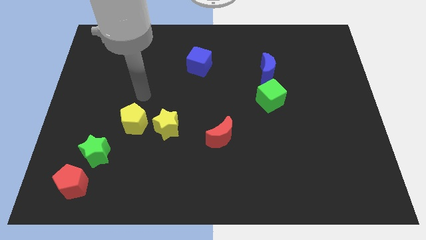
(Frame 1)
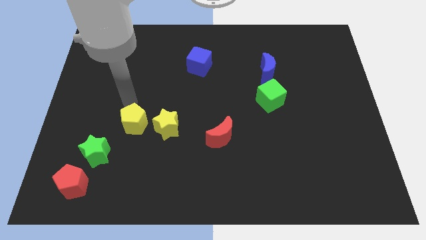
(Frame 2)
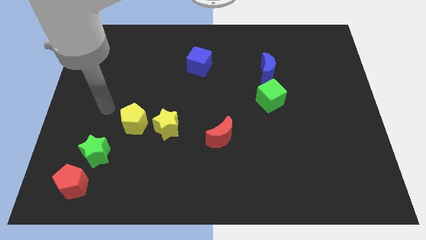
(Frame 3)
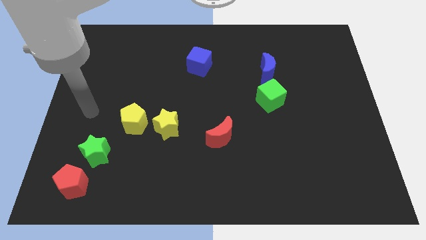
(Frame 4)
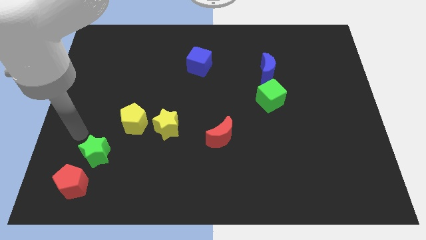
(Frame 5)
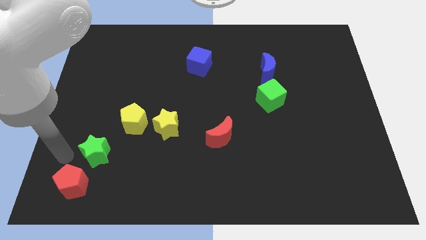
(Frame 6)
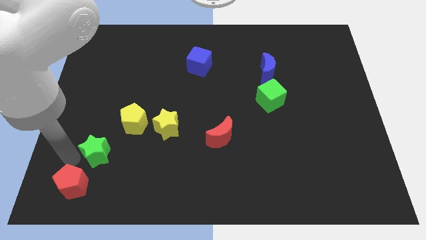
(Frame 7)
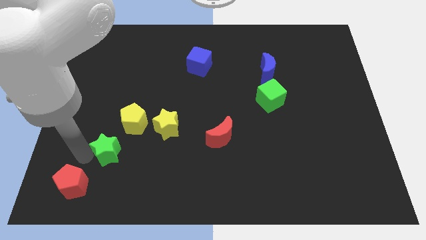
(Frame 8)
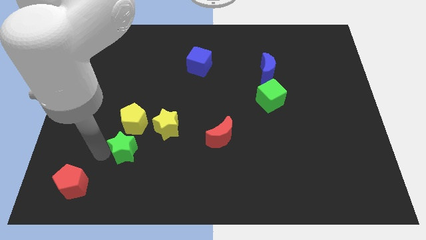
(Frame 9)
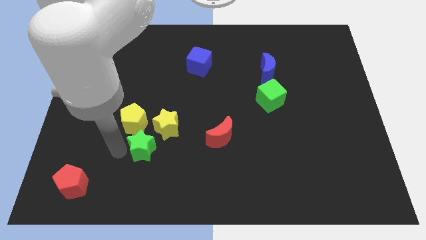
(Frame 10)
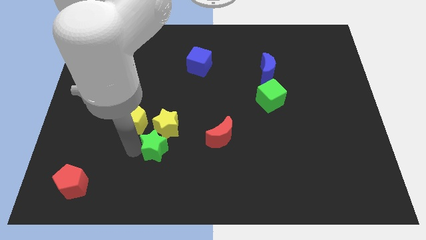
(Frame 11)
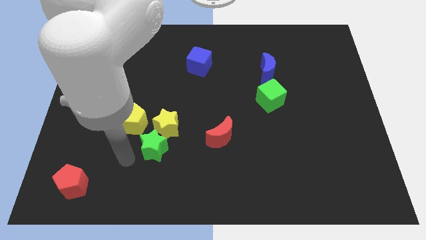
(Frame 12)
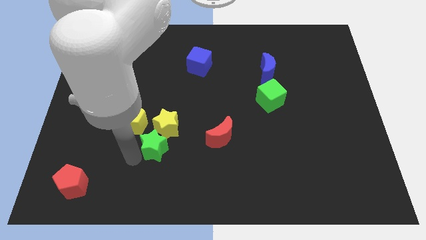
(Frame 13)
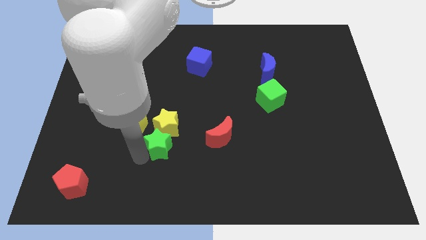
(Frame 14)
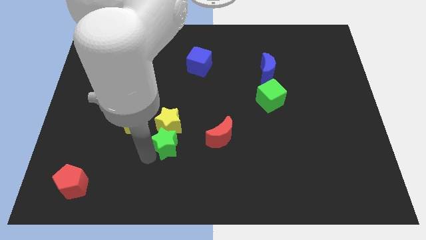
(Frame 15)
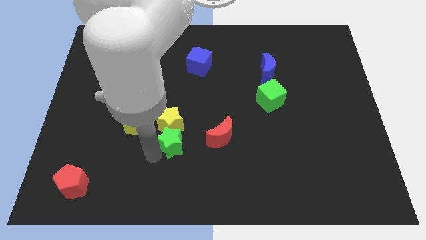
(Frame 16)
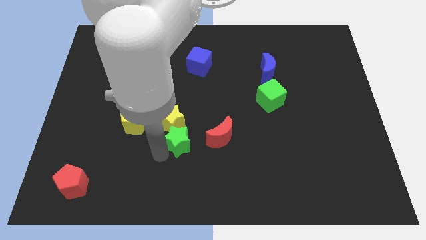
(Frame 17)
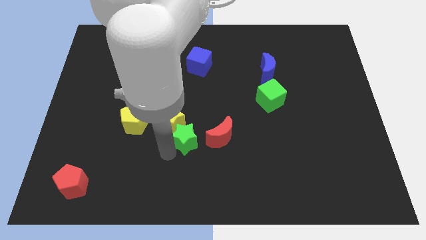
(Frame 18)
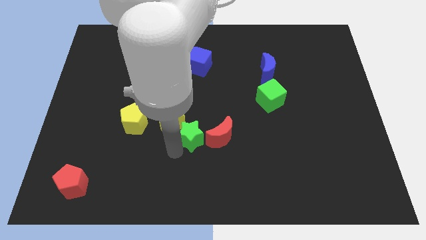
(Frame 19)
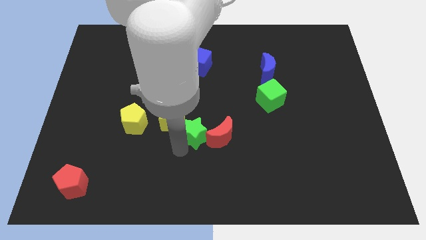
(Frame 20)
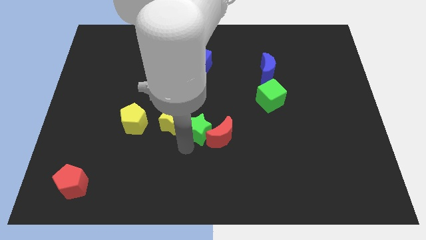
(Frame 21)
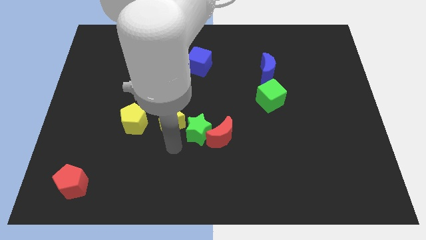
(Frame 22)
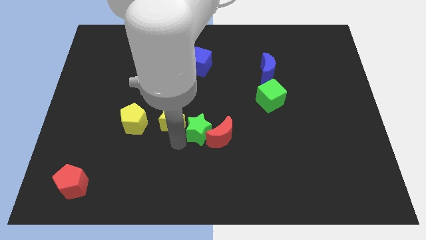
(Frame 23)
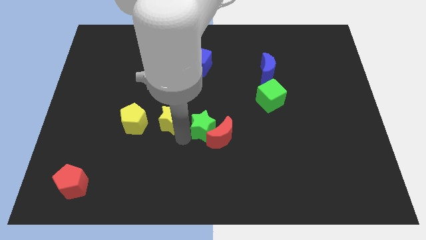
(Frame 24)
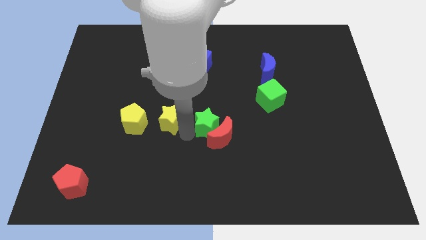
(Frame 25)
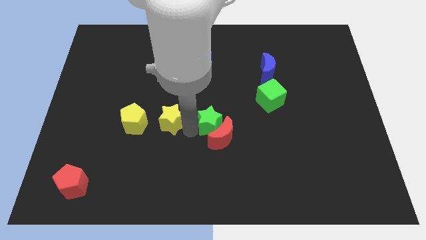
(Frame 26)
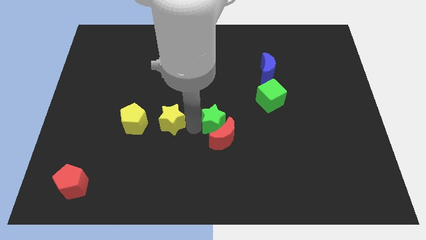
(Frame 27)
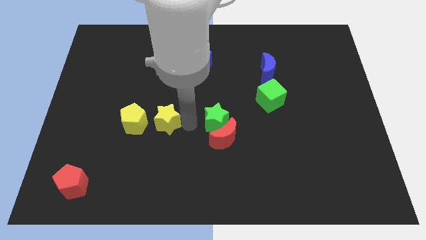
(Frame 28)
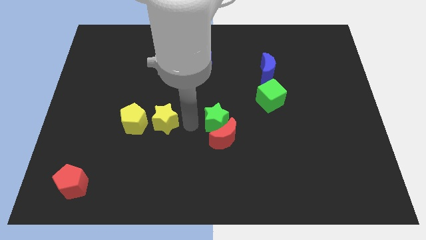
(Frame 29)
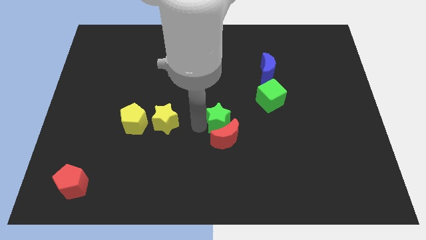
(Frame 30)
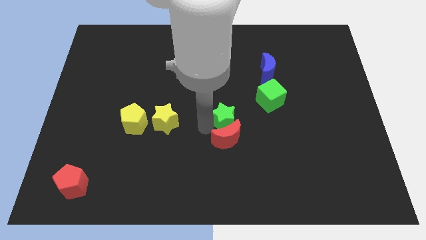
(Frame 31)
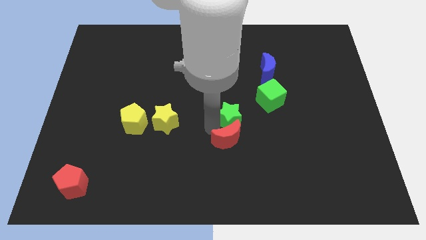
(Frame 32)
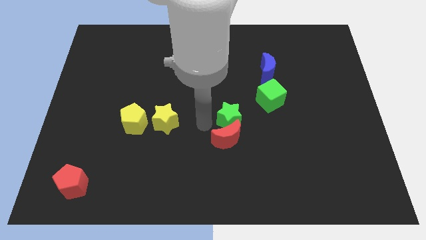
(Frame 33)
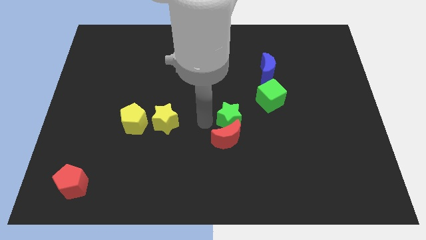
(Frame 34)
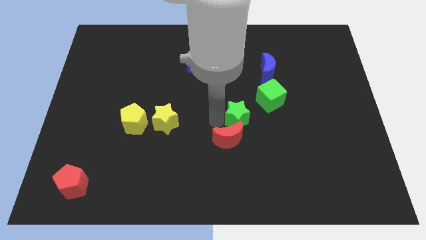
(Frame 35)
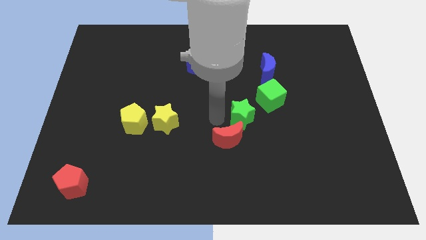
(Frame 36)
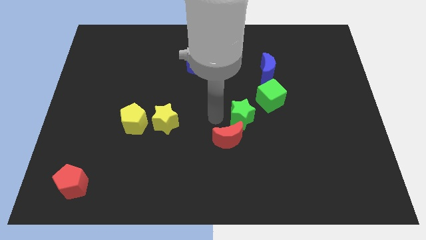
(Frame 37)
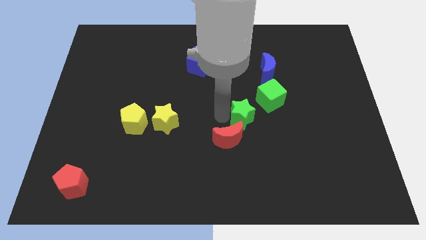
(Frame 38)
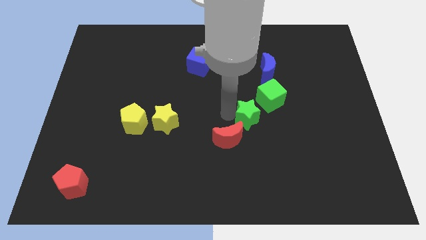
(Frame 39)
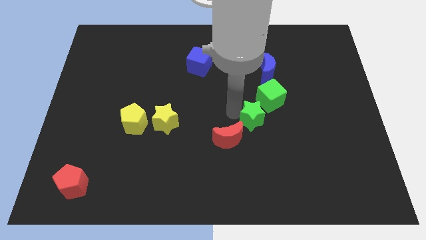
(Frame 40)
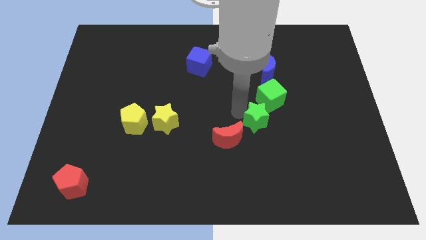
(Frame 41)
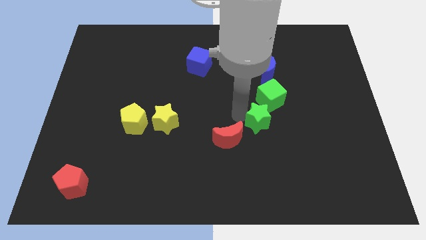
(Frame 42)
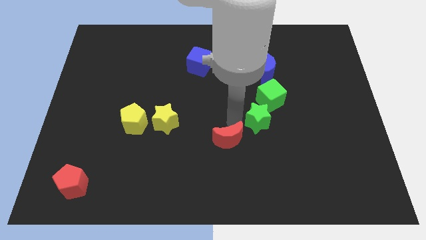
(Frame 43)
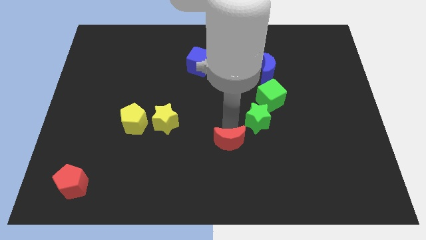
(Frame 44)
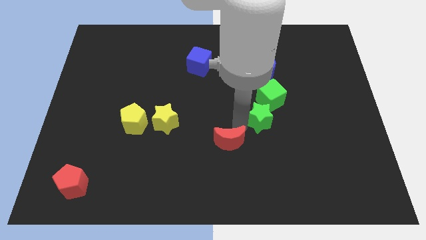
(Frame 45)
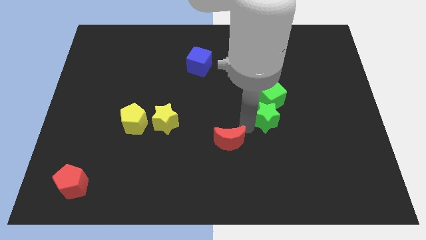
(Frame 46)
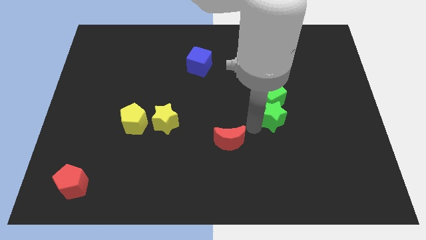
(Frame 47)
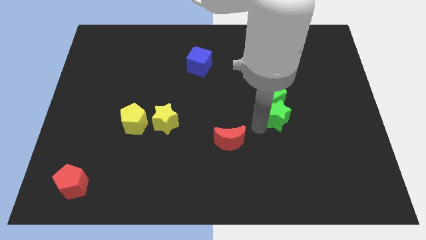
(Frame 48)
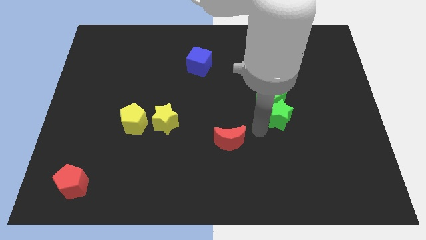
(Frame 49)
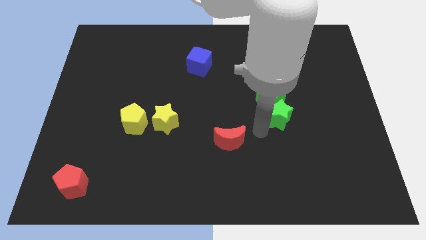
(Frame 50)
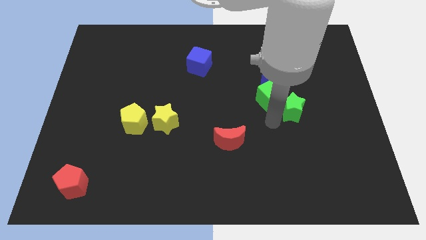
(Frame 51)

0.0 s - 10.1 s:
move the green star to the right of the green cube

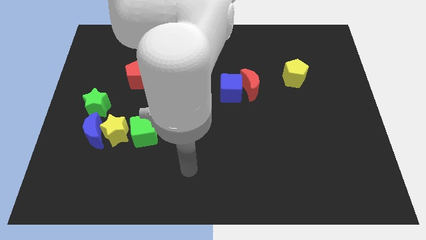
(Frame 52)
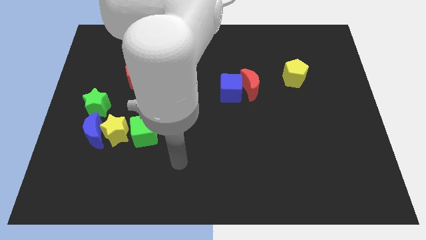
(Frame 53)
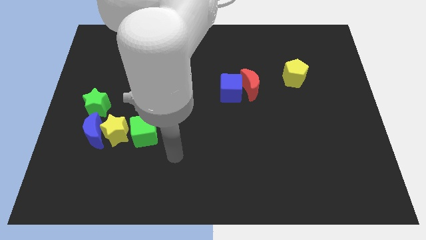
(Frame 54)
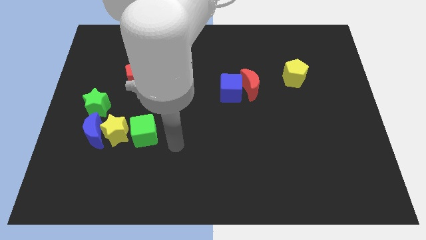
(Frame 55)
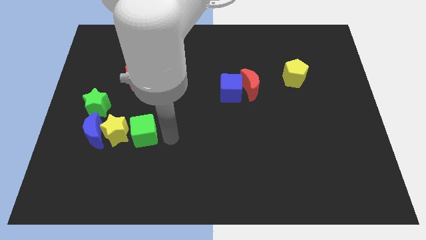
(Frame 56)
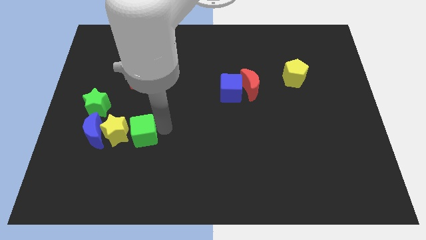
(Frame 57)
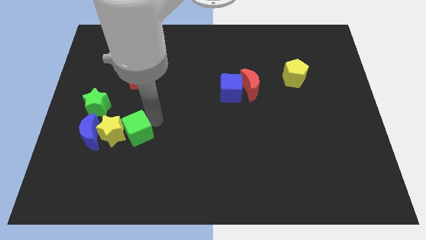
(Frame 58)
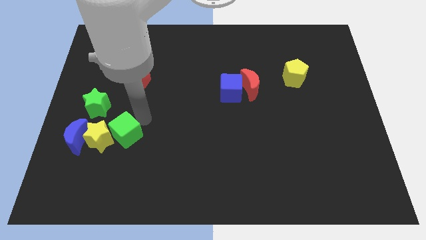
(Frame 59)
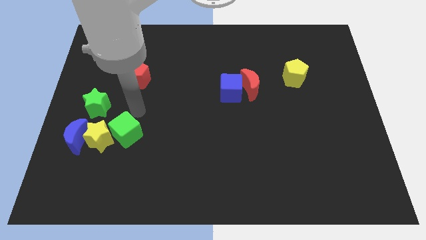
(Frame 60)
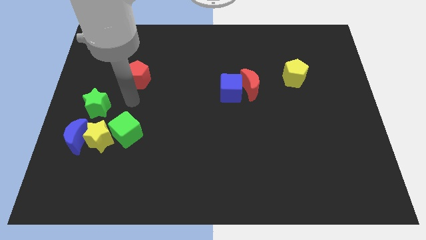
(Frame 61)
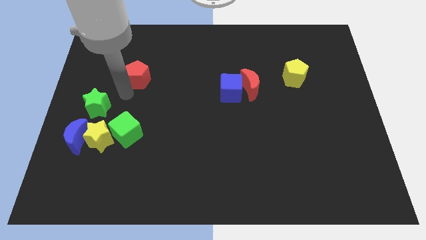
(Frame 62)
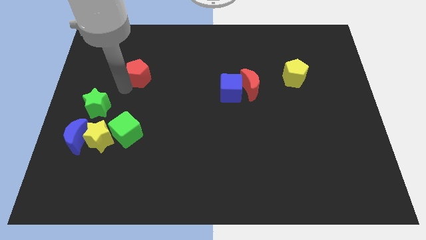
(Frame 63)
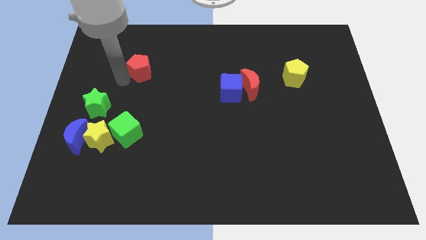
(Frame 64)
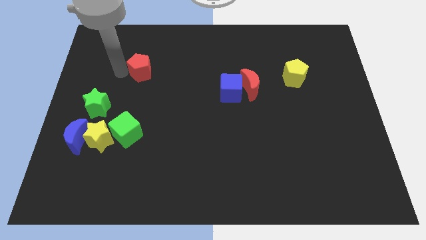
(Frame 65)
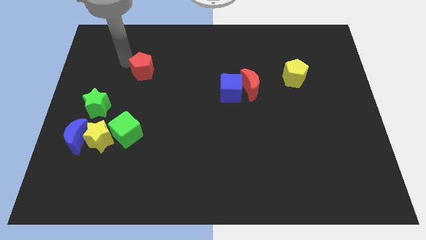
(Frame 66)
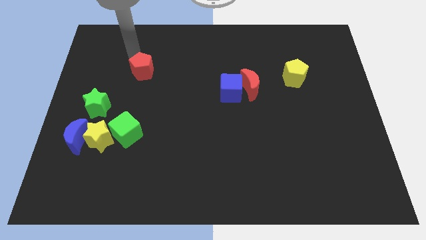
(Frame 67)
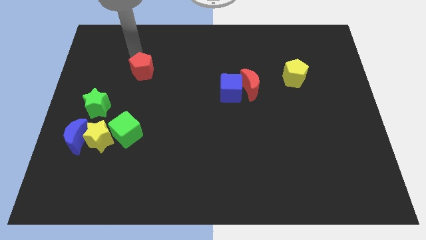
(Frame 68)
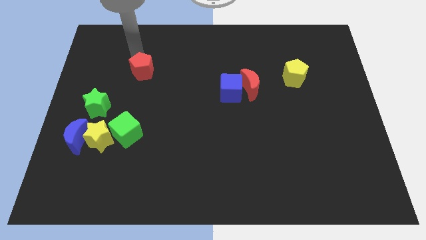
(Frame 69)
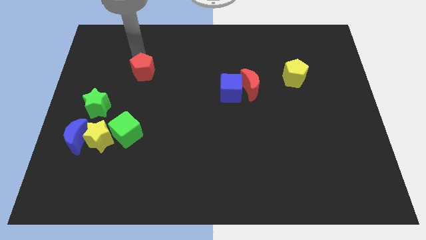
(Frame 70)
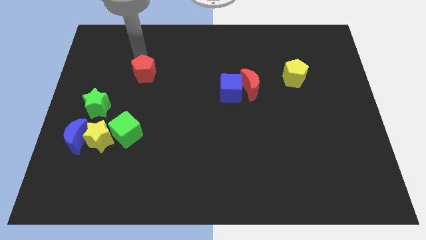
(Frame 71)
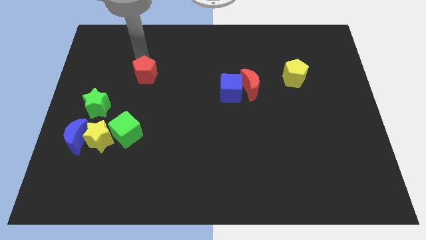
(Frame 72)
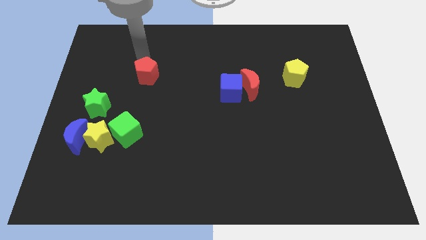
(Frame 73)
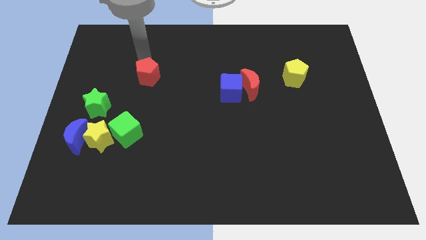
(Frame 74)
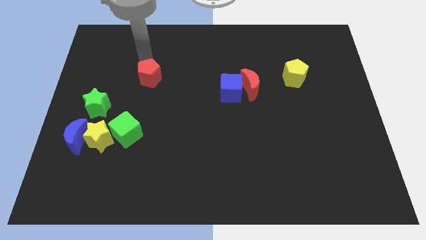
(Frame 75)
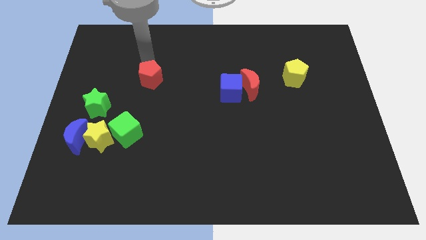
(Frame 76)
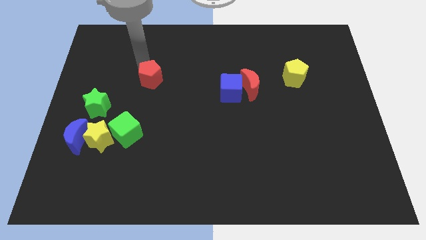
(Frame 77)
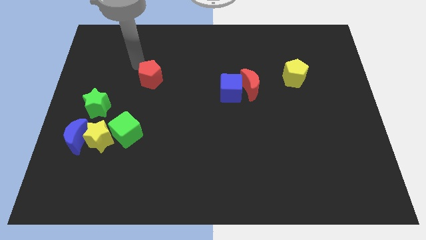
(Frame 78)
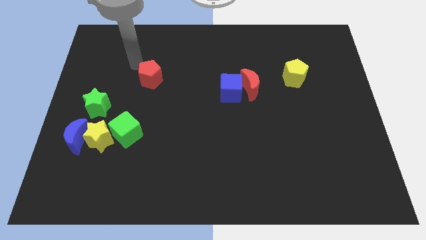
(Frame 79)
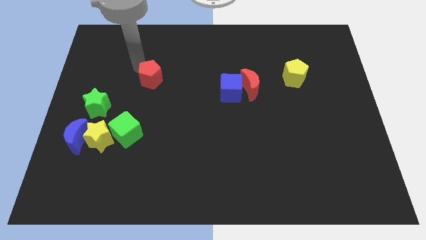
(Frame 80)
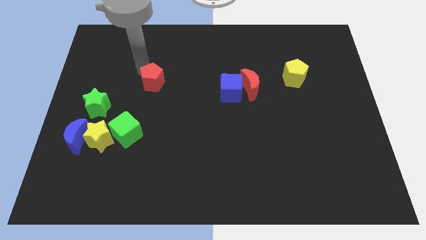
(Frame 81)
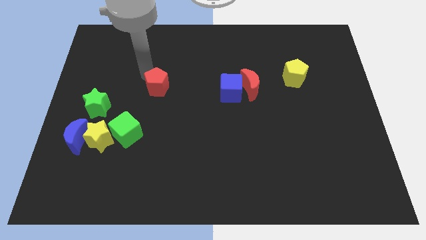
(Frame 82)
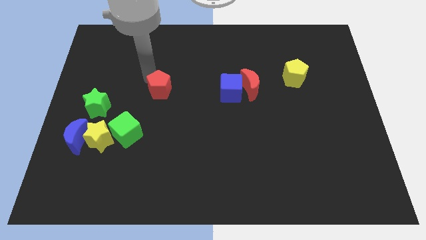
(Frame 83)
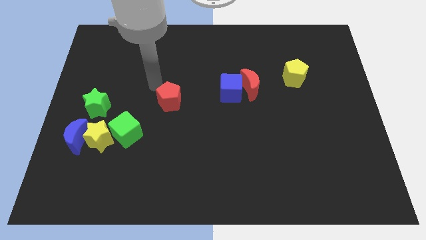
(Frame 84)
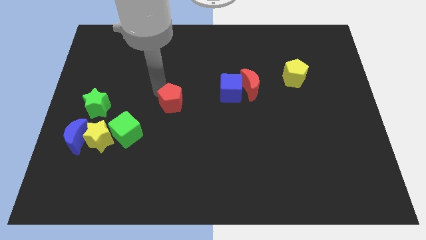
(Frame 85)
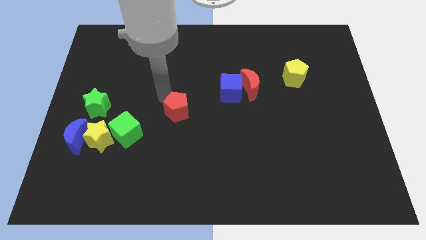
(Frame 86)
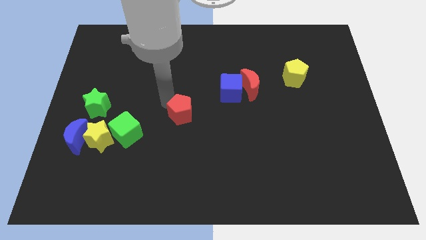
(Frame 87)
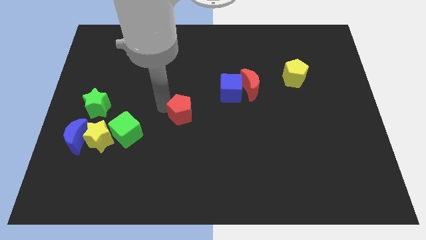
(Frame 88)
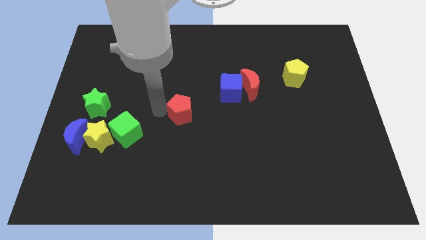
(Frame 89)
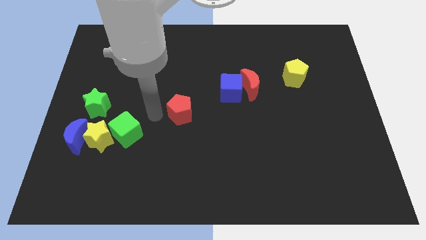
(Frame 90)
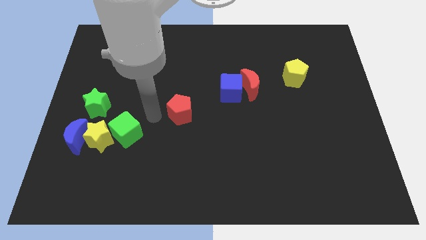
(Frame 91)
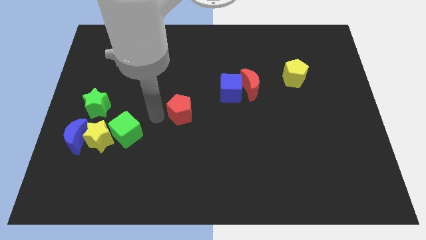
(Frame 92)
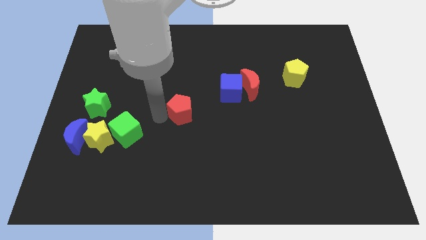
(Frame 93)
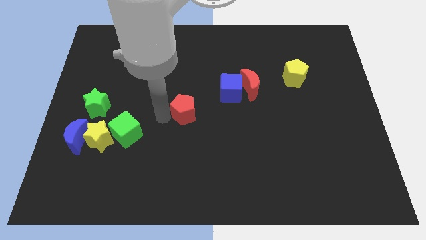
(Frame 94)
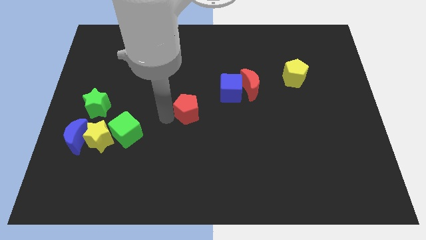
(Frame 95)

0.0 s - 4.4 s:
push the red pentagon diagonally down and to the left of the blue cube
